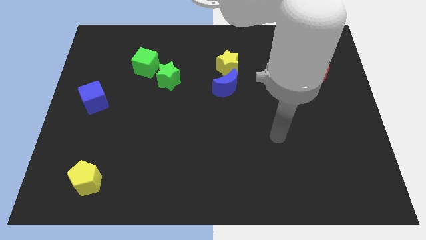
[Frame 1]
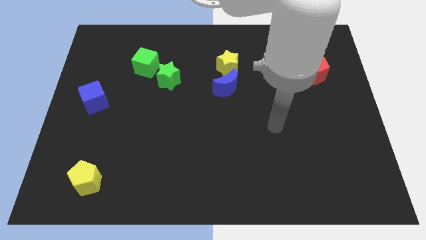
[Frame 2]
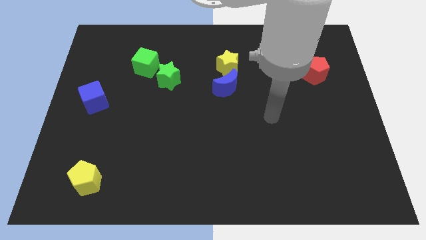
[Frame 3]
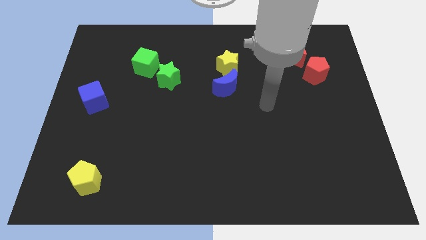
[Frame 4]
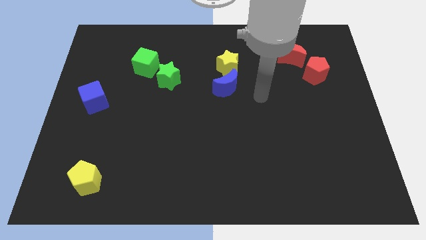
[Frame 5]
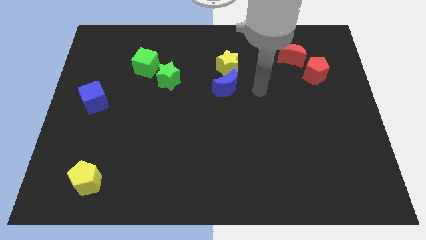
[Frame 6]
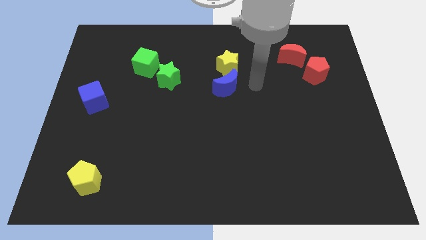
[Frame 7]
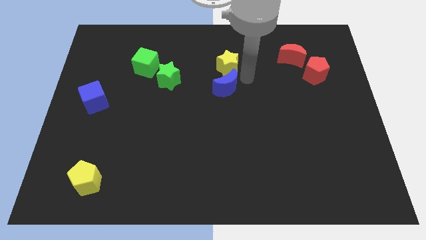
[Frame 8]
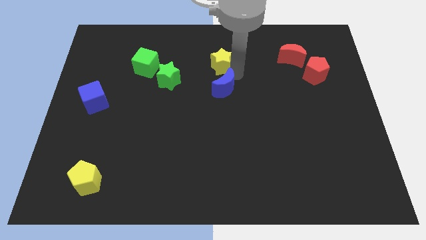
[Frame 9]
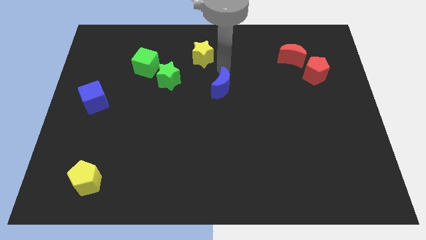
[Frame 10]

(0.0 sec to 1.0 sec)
separate the blue moon from the yellow star

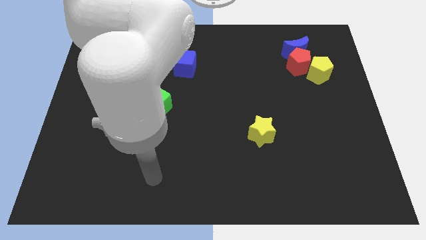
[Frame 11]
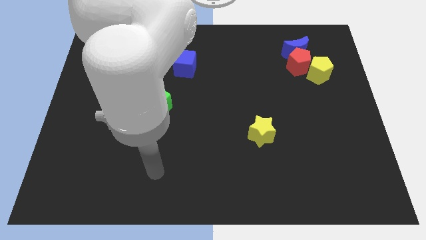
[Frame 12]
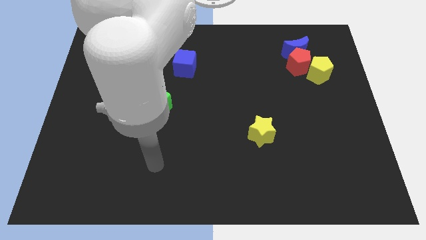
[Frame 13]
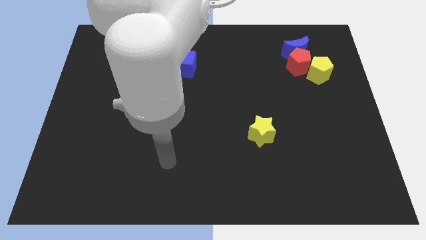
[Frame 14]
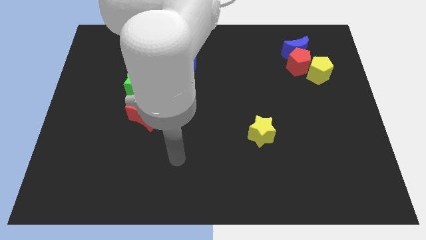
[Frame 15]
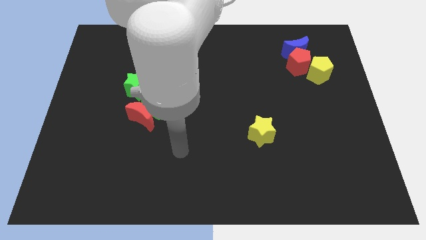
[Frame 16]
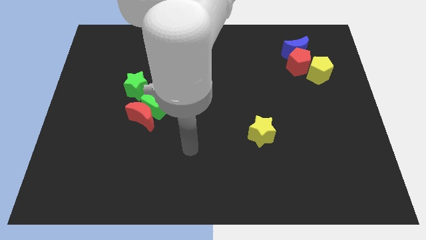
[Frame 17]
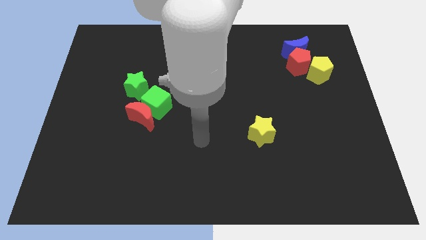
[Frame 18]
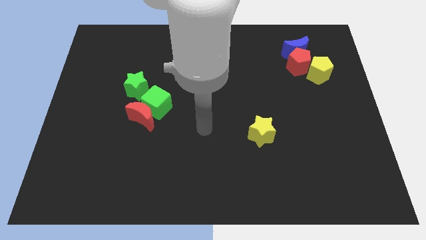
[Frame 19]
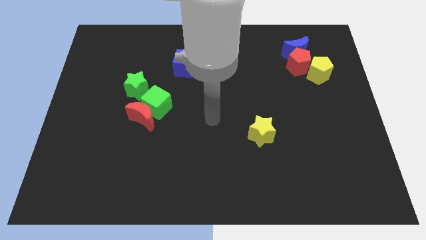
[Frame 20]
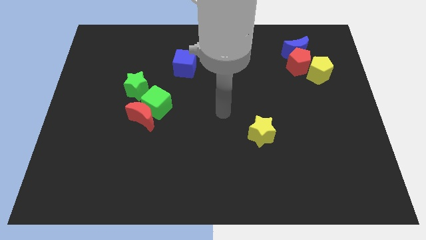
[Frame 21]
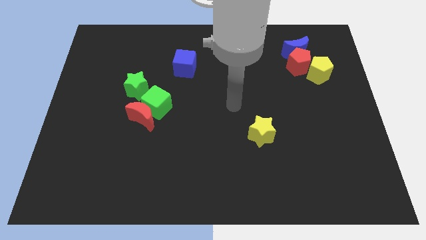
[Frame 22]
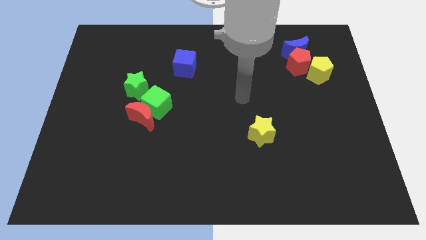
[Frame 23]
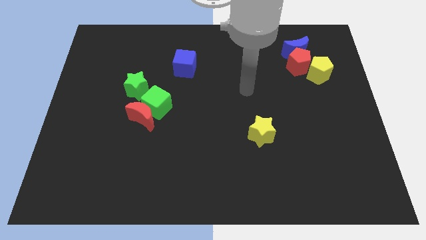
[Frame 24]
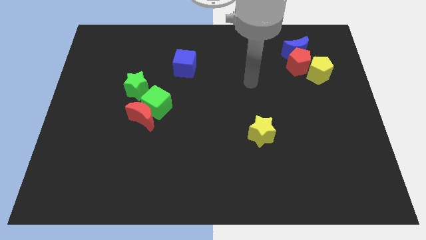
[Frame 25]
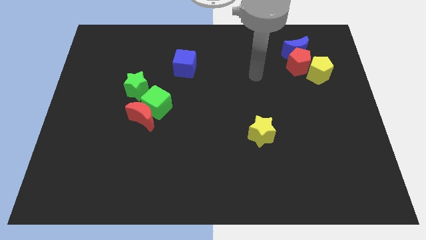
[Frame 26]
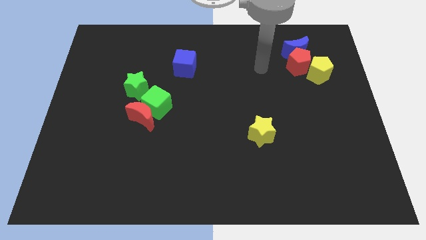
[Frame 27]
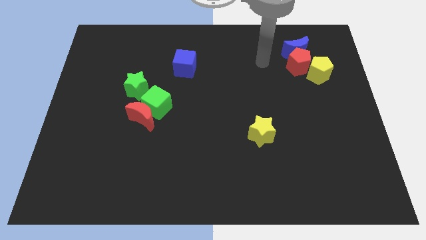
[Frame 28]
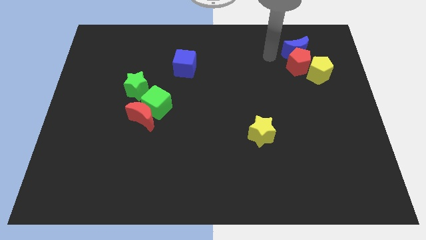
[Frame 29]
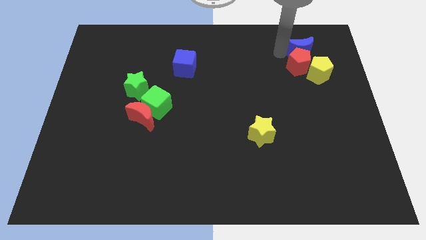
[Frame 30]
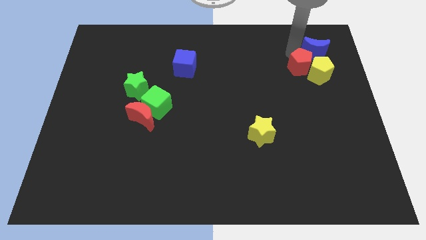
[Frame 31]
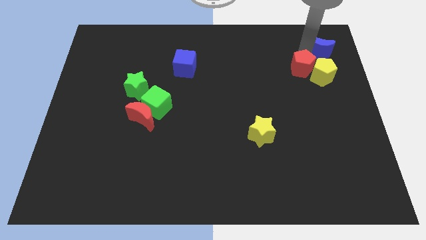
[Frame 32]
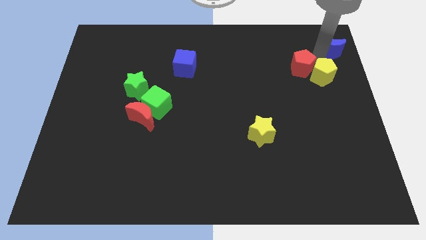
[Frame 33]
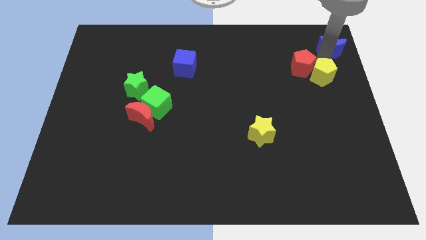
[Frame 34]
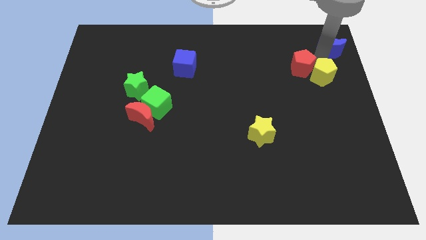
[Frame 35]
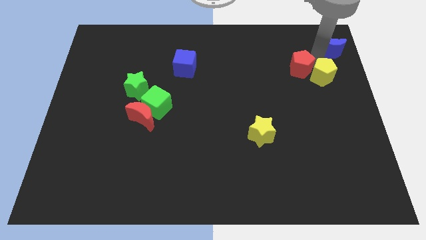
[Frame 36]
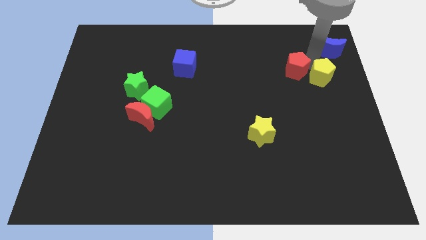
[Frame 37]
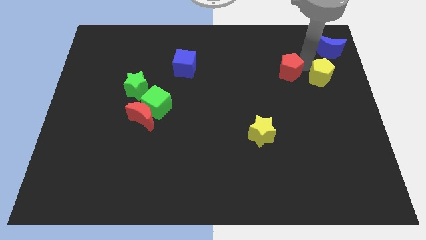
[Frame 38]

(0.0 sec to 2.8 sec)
separate the red pentagon from the blue moon and yellow pentagon

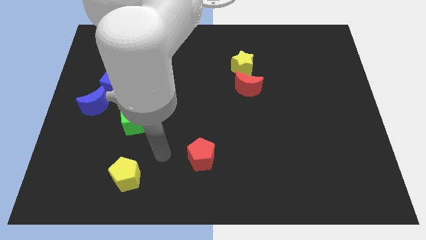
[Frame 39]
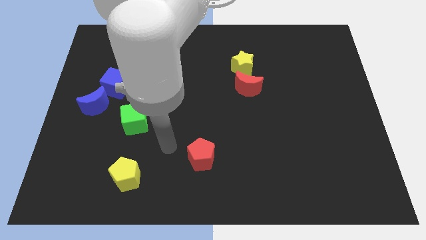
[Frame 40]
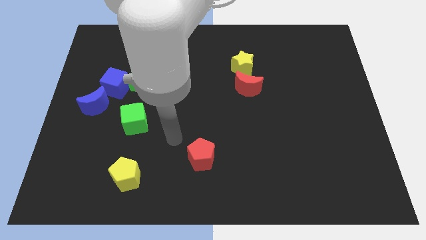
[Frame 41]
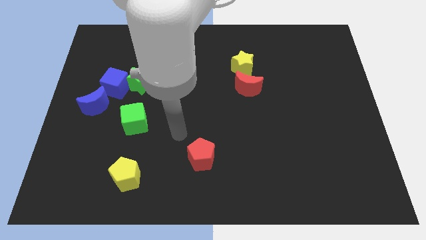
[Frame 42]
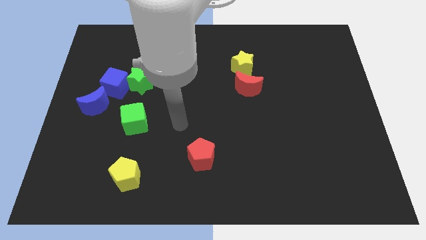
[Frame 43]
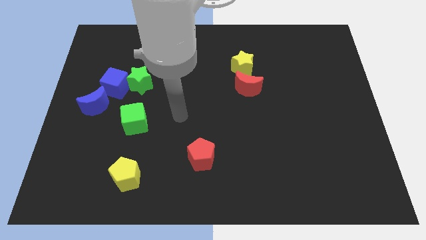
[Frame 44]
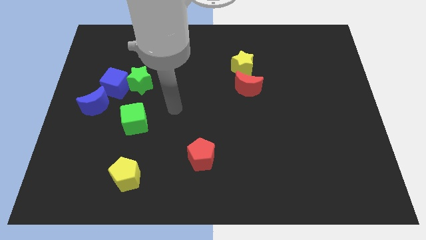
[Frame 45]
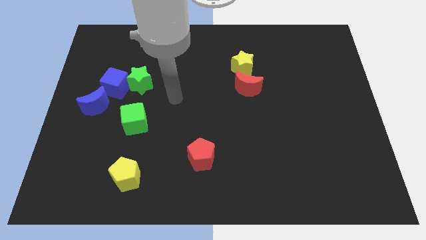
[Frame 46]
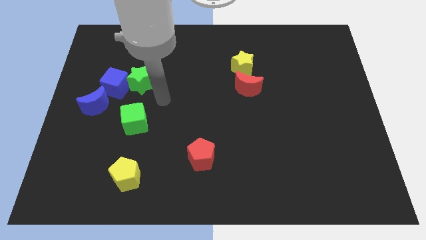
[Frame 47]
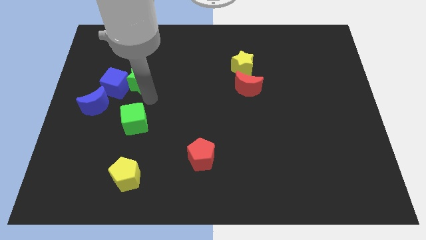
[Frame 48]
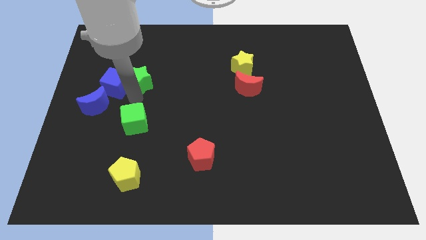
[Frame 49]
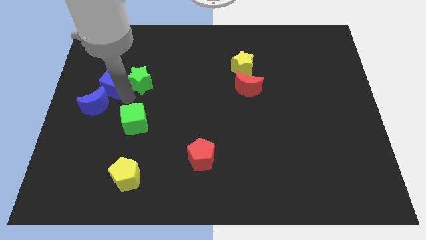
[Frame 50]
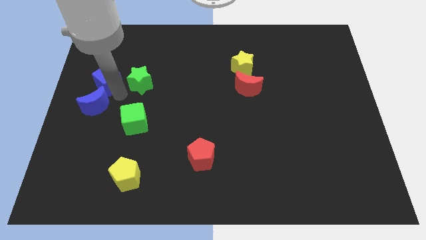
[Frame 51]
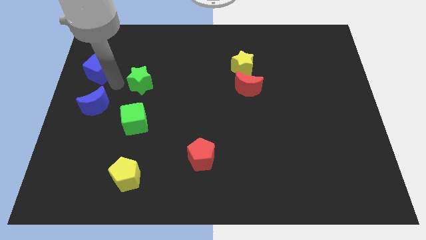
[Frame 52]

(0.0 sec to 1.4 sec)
pull the green star apart from the blue cube

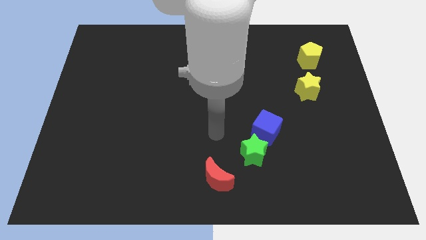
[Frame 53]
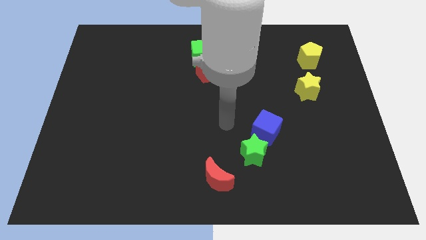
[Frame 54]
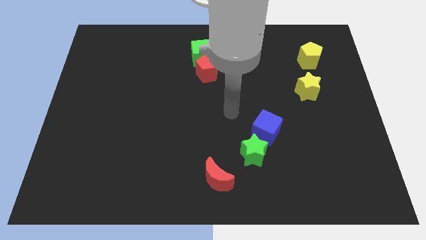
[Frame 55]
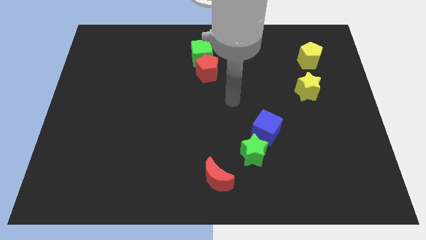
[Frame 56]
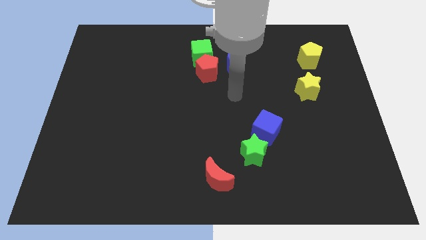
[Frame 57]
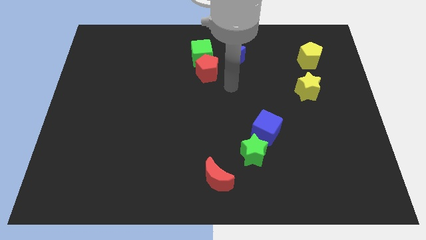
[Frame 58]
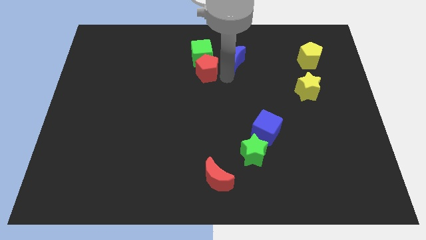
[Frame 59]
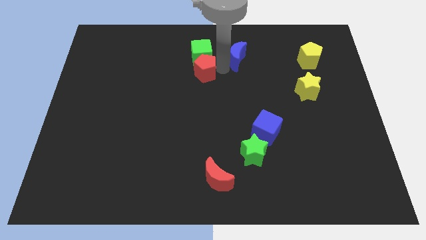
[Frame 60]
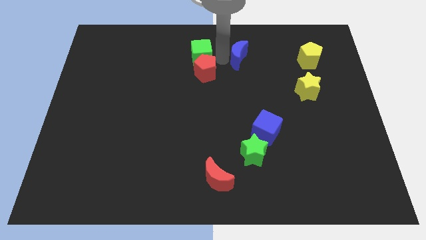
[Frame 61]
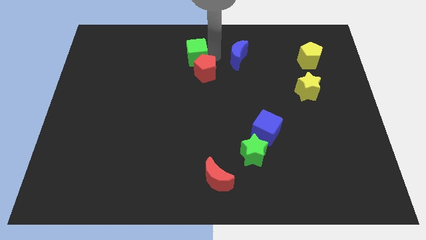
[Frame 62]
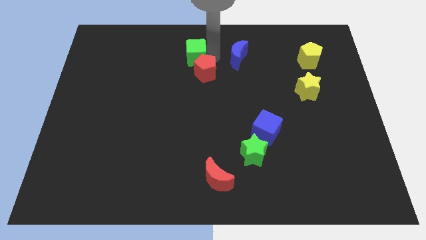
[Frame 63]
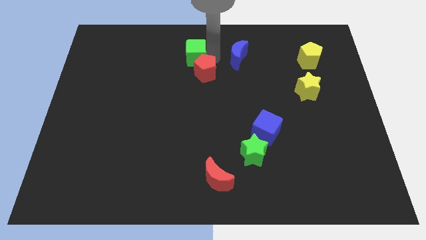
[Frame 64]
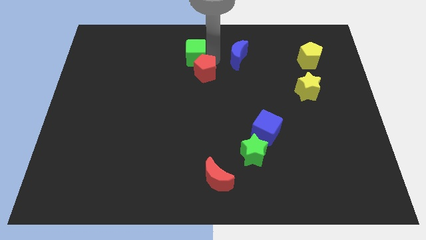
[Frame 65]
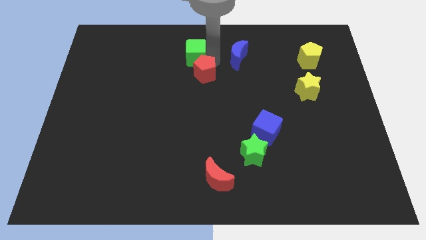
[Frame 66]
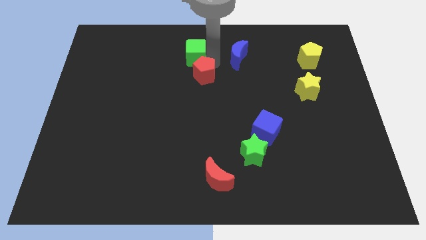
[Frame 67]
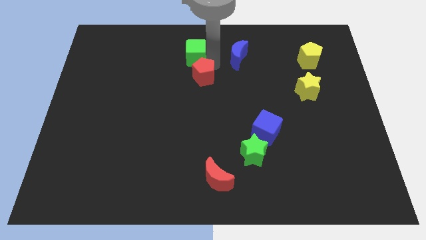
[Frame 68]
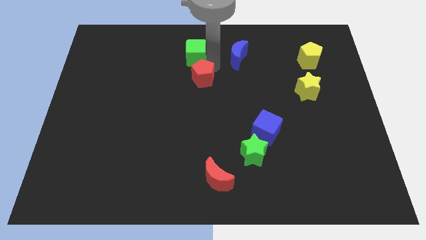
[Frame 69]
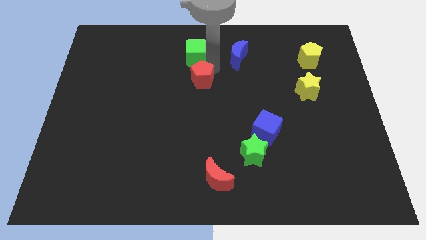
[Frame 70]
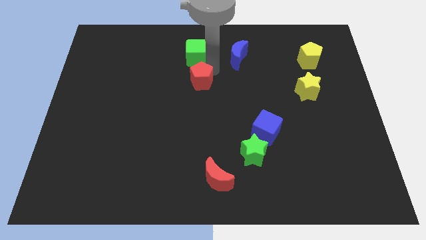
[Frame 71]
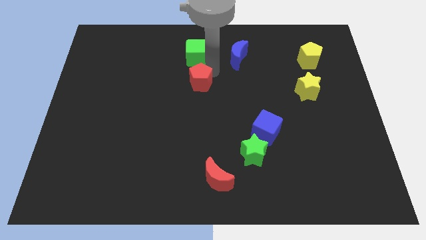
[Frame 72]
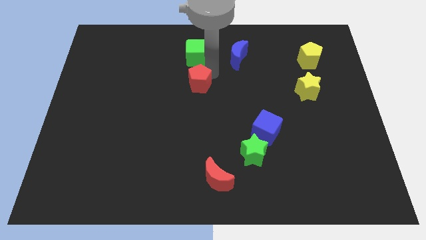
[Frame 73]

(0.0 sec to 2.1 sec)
move the red pentagon away from the green cube and blue moon

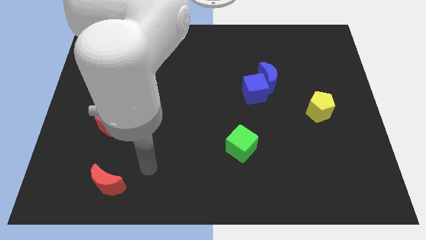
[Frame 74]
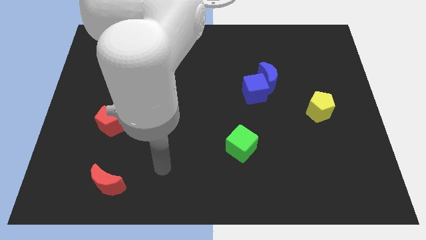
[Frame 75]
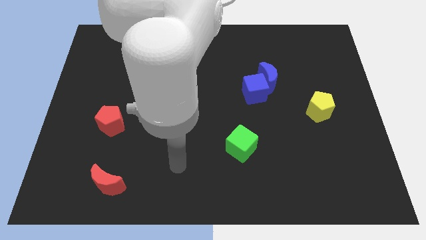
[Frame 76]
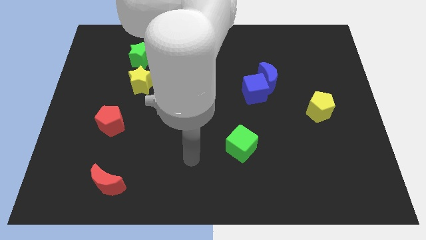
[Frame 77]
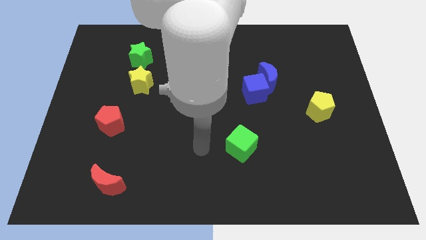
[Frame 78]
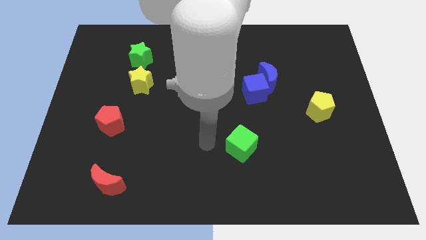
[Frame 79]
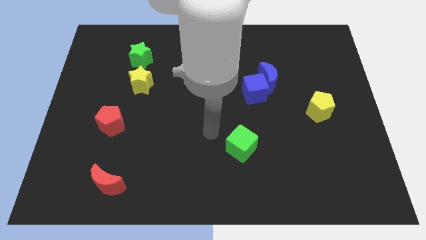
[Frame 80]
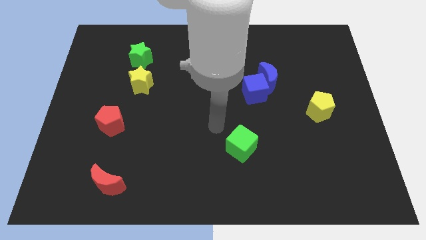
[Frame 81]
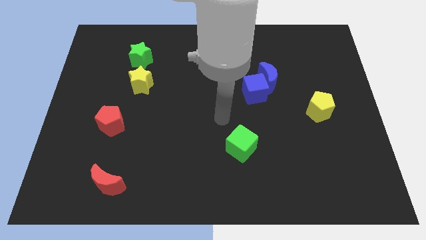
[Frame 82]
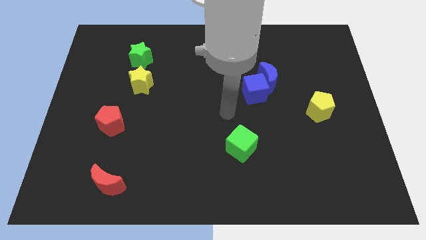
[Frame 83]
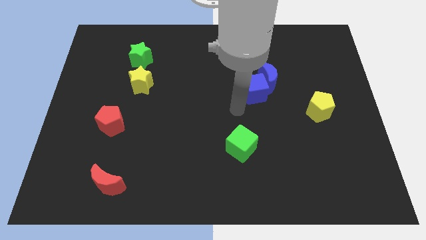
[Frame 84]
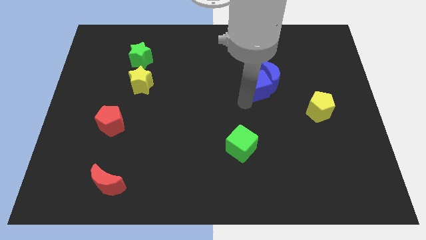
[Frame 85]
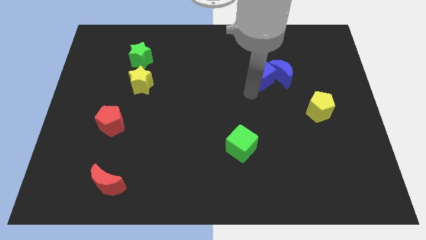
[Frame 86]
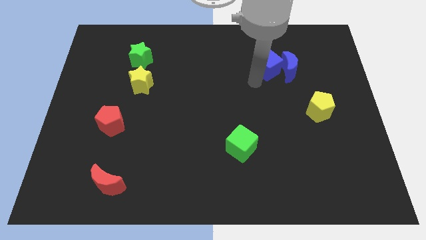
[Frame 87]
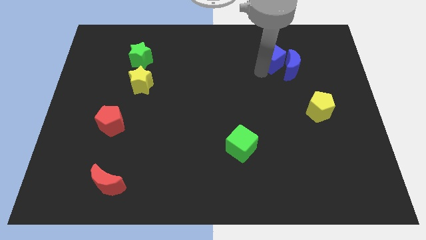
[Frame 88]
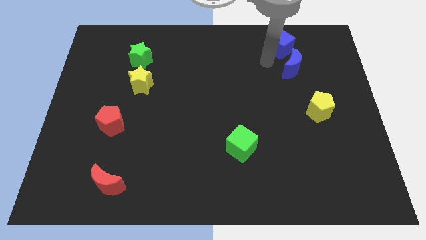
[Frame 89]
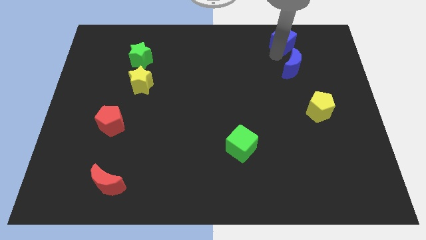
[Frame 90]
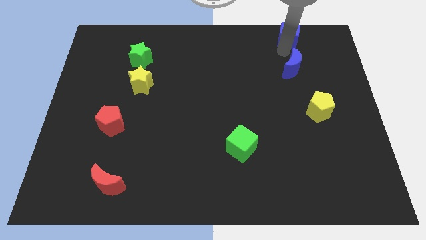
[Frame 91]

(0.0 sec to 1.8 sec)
move the blue moon away from the blue cube

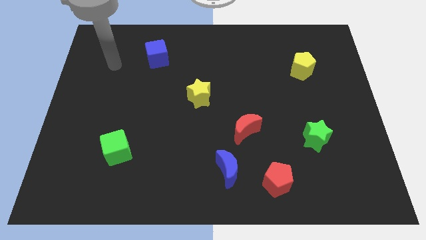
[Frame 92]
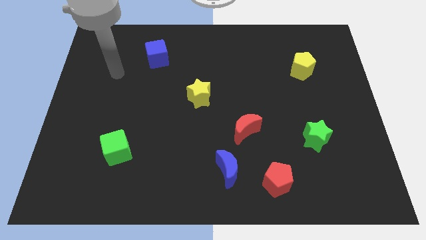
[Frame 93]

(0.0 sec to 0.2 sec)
move the red pentagon away from the blue moon
